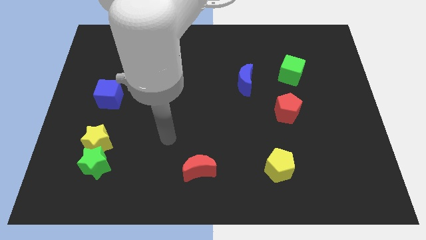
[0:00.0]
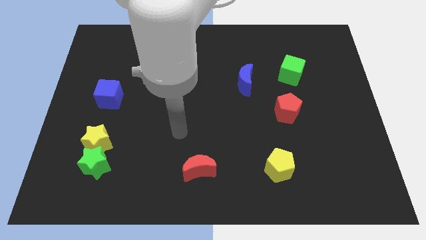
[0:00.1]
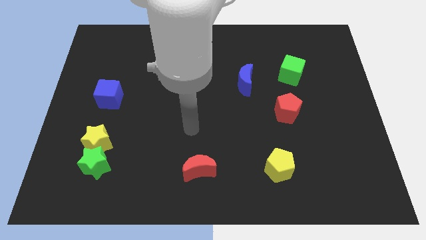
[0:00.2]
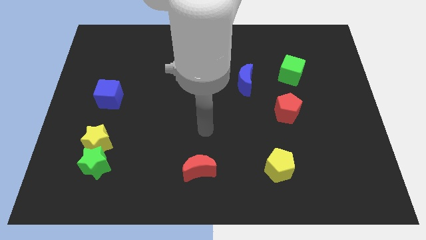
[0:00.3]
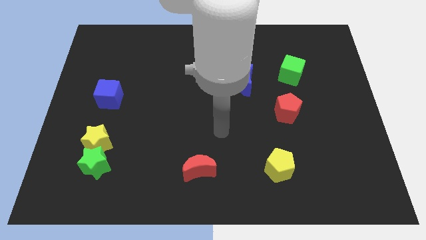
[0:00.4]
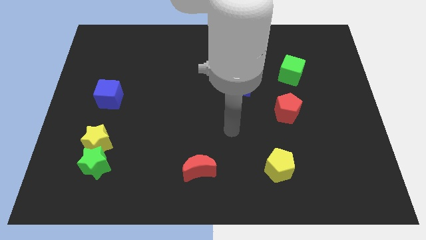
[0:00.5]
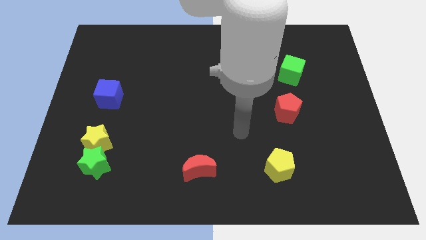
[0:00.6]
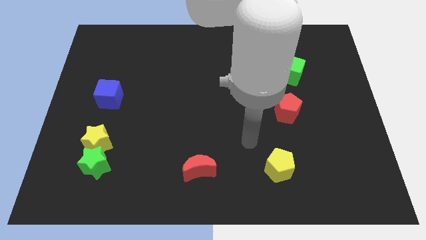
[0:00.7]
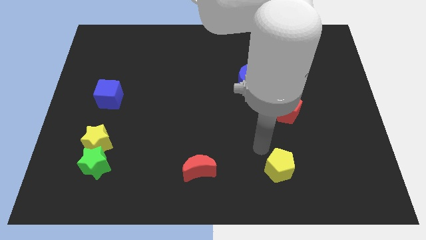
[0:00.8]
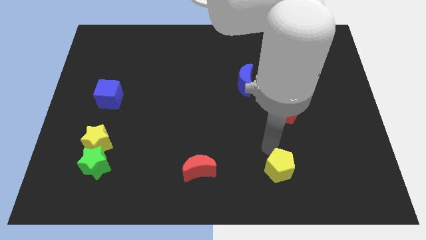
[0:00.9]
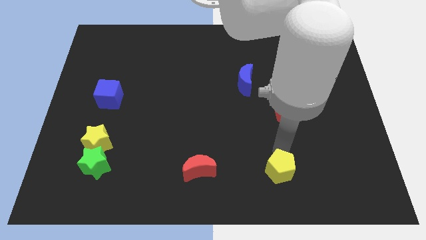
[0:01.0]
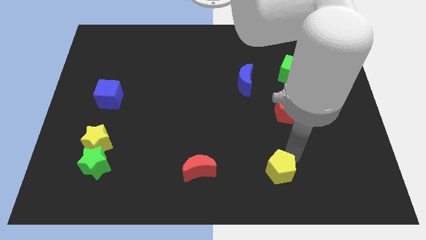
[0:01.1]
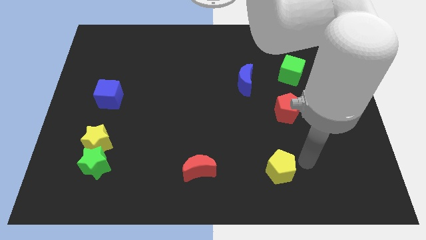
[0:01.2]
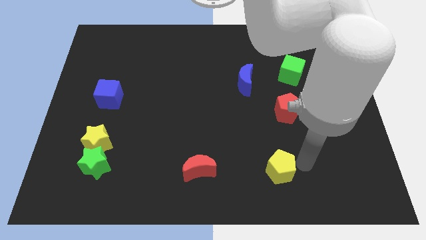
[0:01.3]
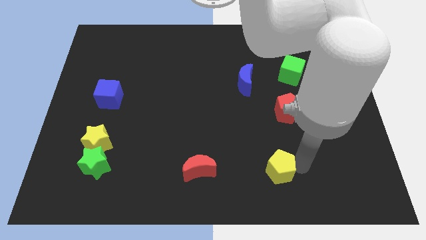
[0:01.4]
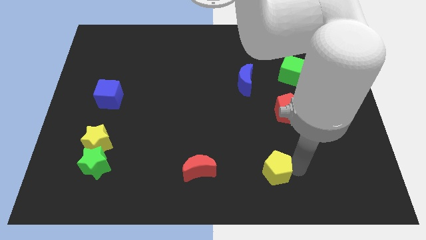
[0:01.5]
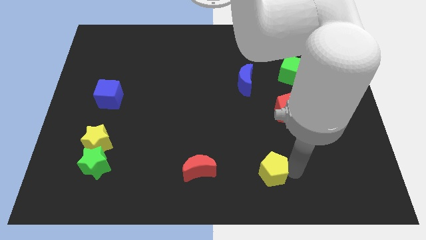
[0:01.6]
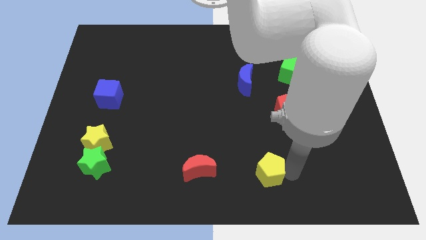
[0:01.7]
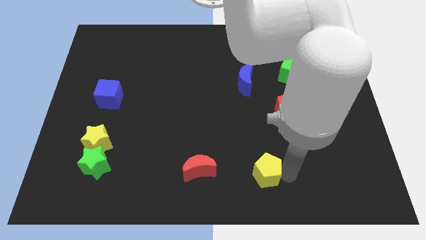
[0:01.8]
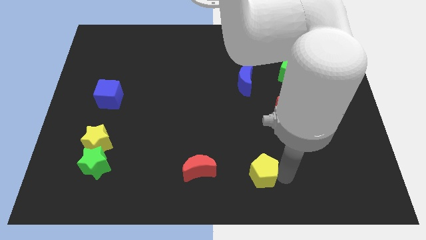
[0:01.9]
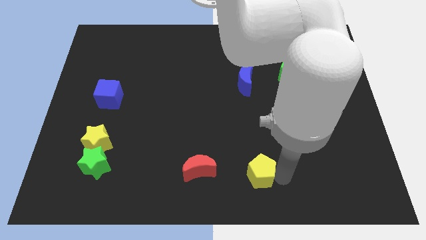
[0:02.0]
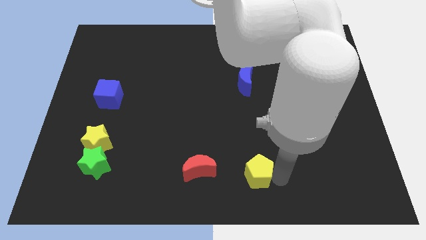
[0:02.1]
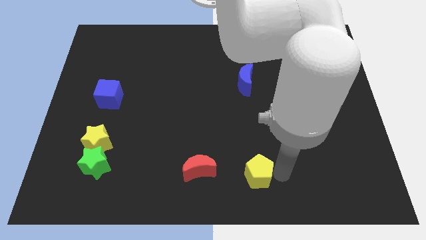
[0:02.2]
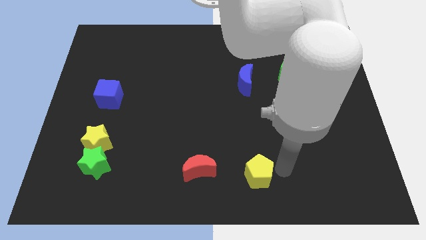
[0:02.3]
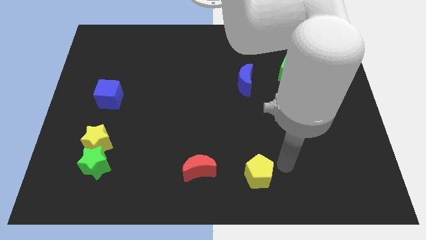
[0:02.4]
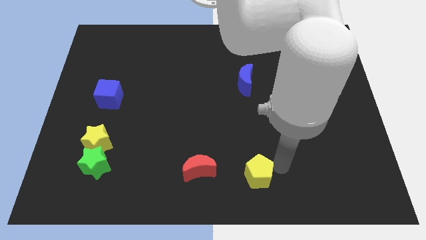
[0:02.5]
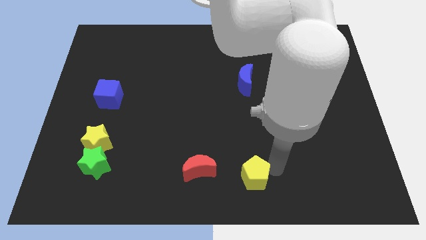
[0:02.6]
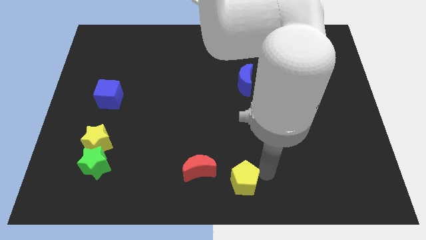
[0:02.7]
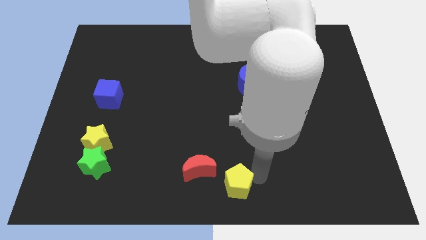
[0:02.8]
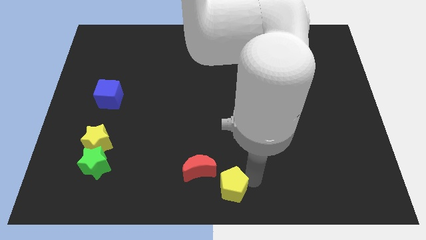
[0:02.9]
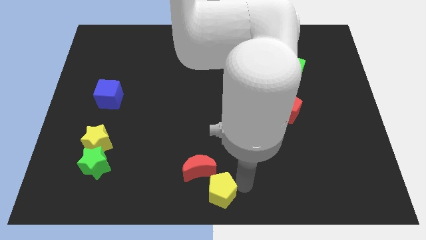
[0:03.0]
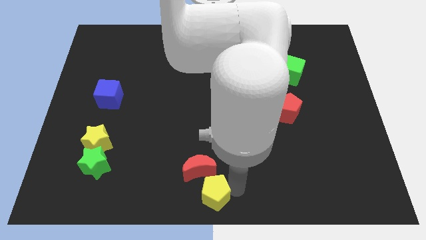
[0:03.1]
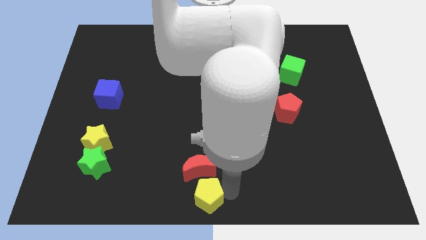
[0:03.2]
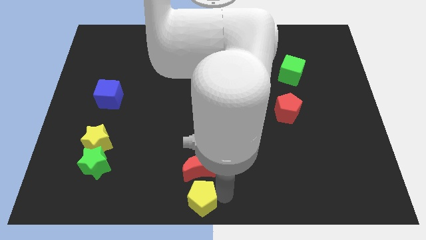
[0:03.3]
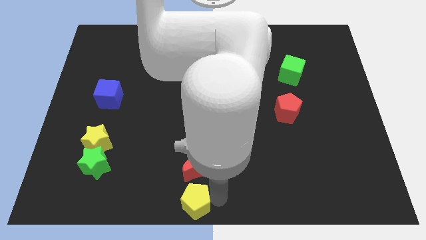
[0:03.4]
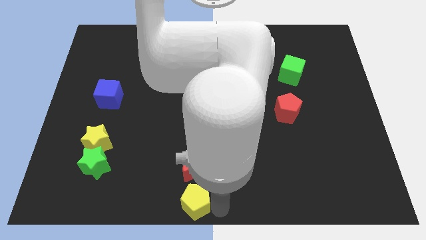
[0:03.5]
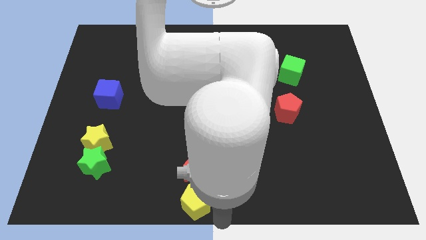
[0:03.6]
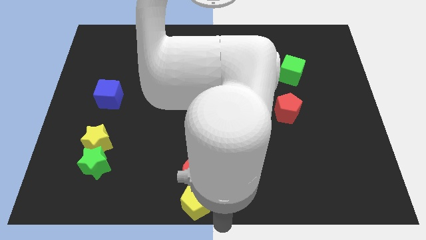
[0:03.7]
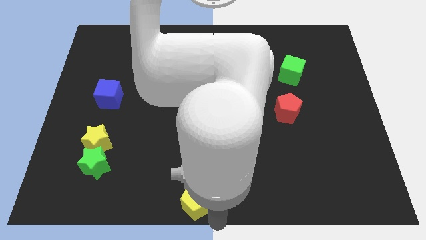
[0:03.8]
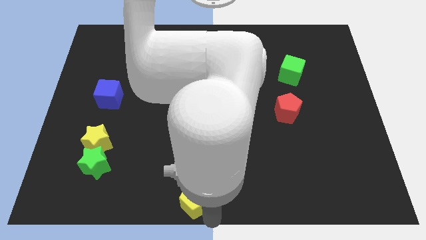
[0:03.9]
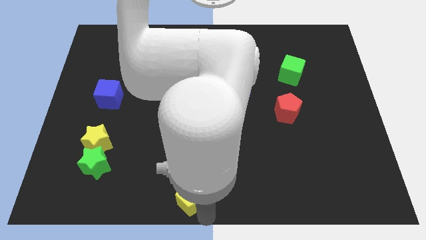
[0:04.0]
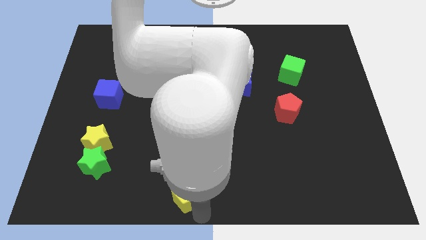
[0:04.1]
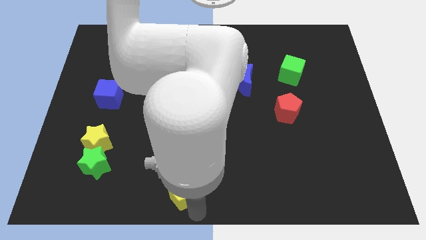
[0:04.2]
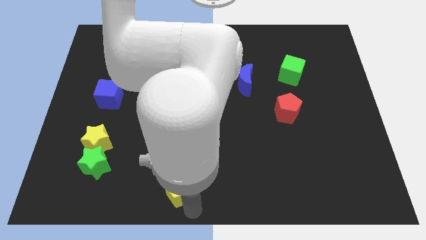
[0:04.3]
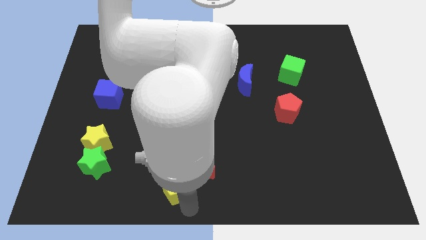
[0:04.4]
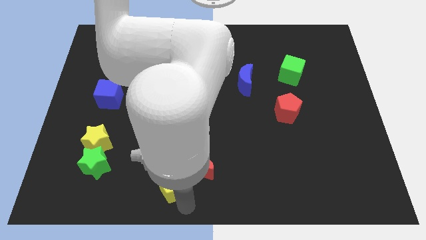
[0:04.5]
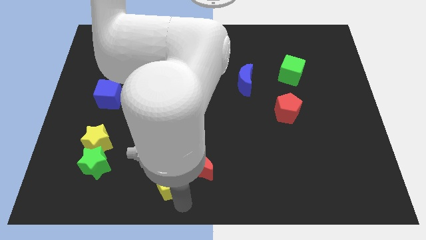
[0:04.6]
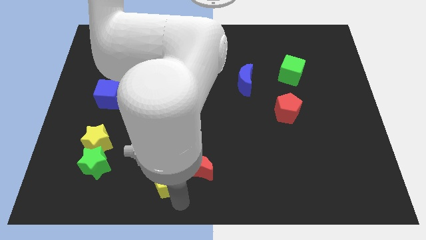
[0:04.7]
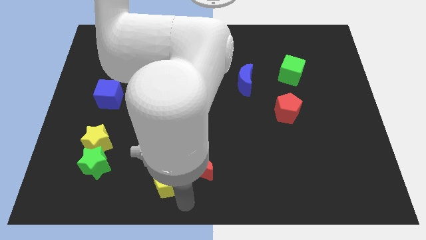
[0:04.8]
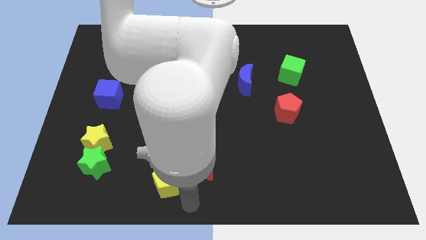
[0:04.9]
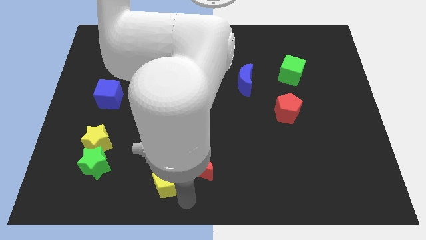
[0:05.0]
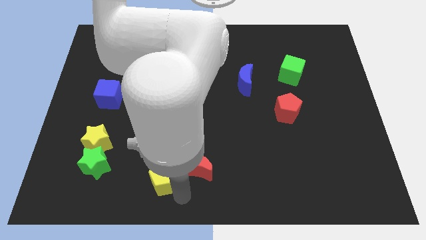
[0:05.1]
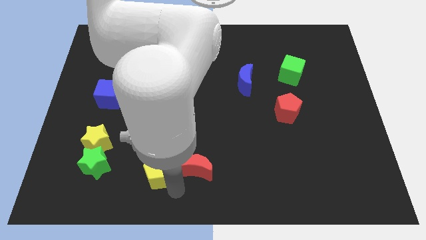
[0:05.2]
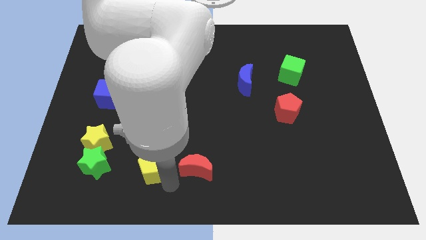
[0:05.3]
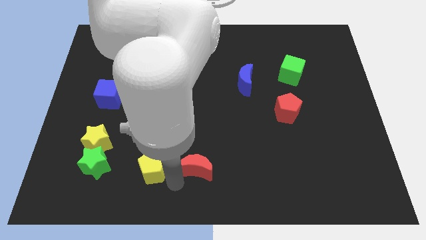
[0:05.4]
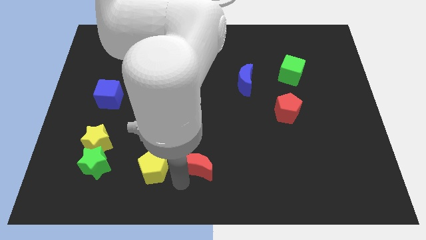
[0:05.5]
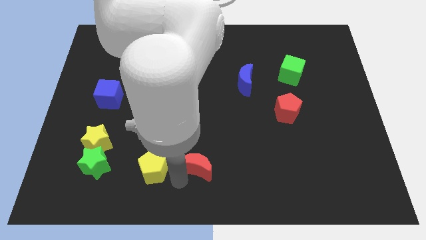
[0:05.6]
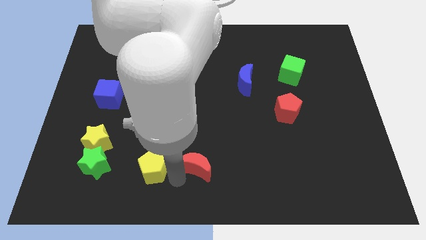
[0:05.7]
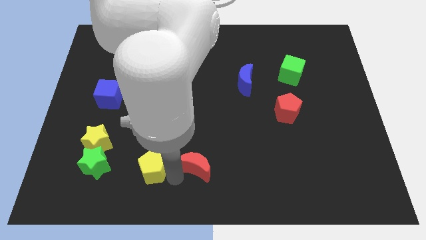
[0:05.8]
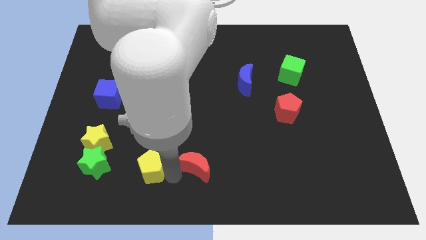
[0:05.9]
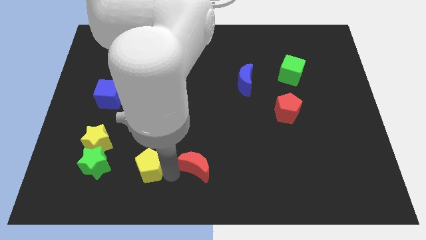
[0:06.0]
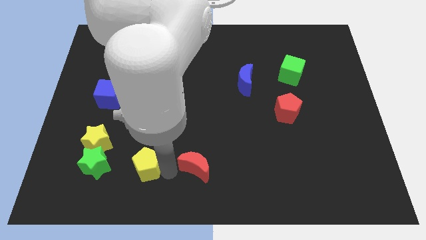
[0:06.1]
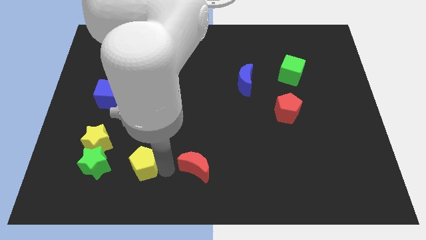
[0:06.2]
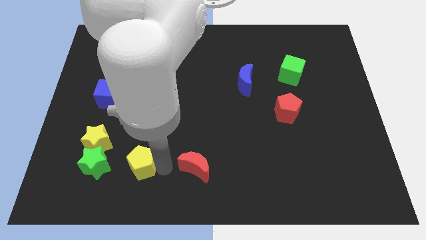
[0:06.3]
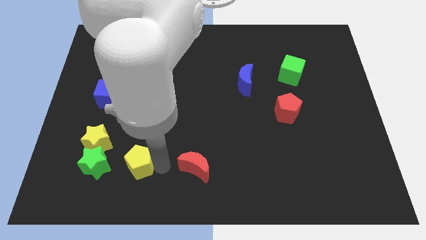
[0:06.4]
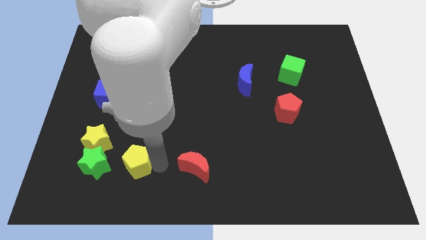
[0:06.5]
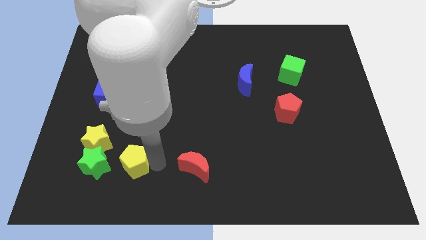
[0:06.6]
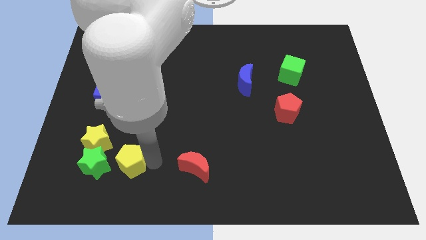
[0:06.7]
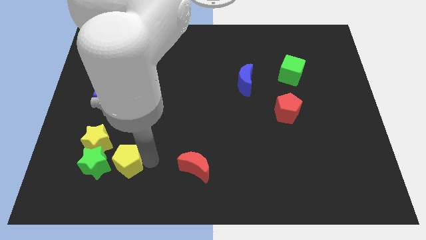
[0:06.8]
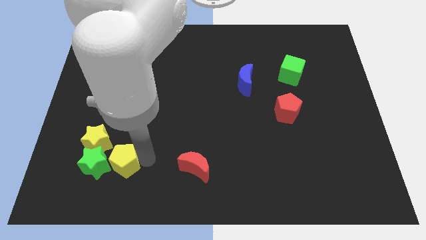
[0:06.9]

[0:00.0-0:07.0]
put the yellow pentagon next to the green star

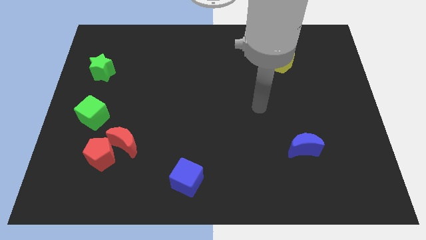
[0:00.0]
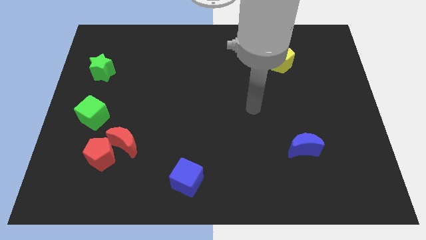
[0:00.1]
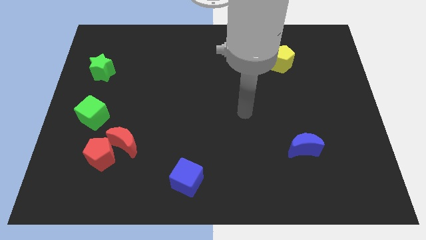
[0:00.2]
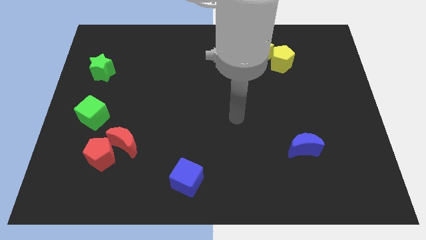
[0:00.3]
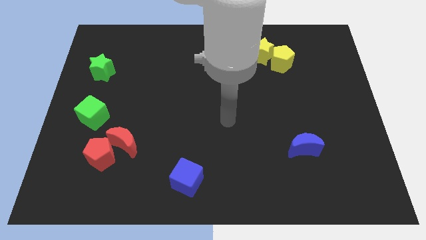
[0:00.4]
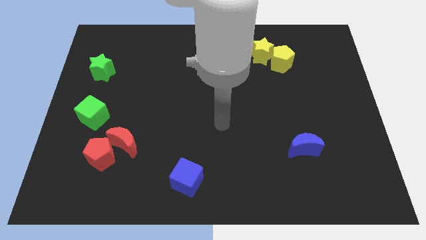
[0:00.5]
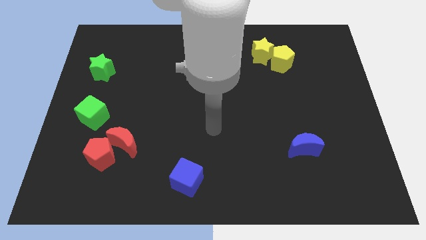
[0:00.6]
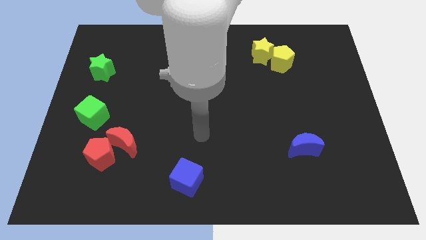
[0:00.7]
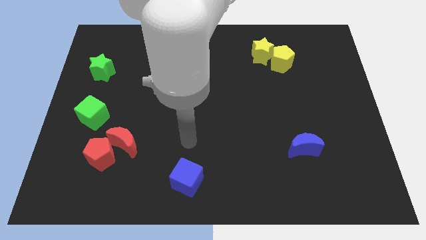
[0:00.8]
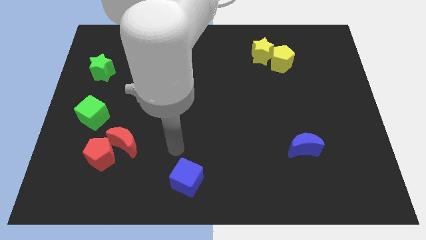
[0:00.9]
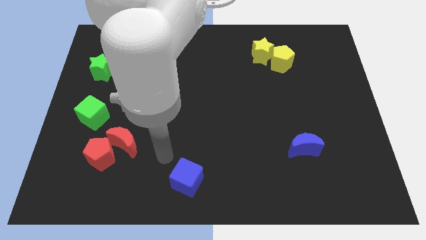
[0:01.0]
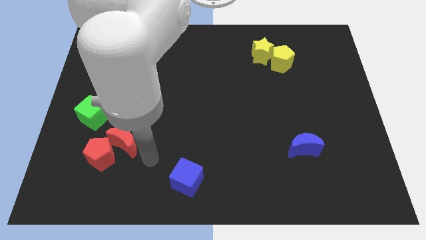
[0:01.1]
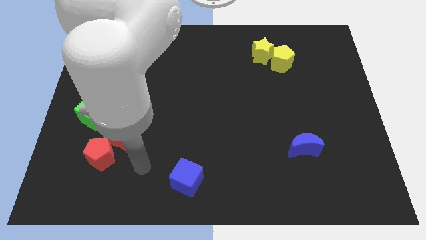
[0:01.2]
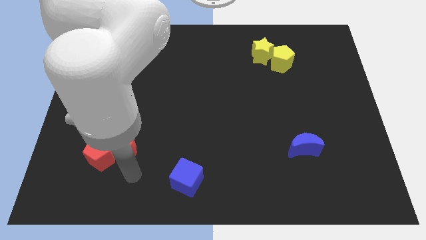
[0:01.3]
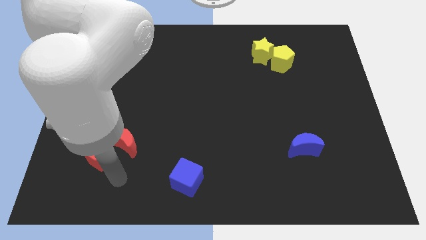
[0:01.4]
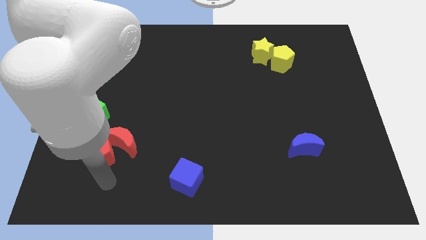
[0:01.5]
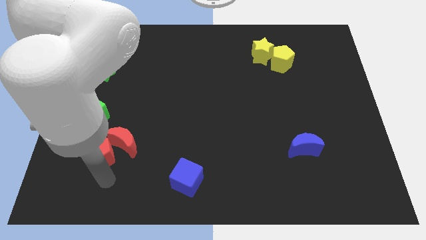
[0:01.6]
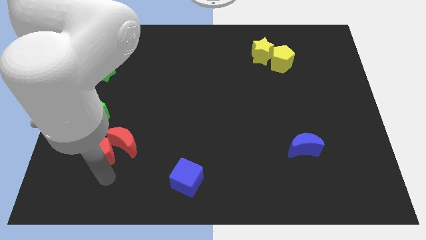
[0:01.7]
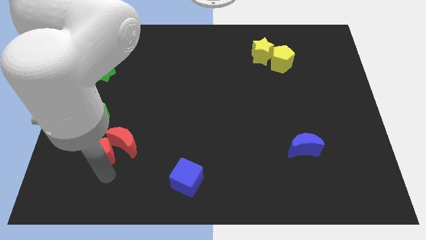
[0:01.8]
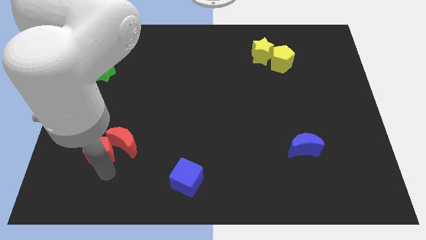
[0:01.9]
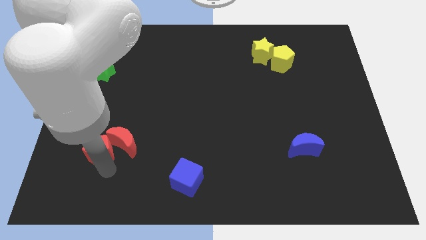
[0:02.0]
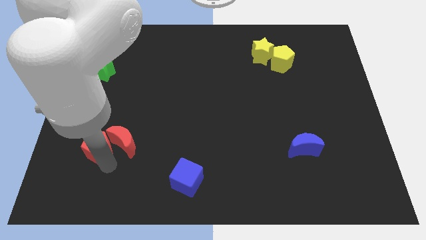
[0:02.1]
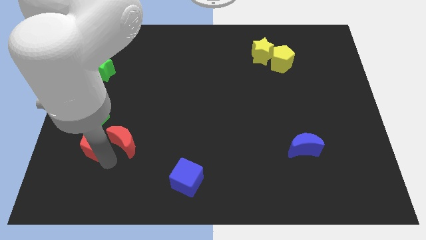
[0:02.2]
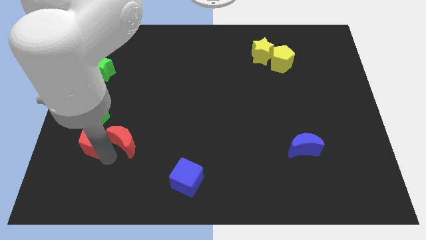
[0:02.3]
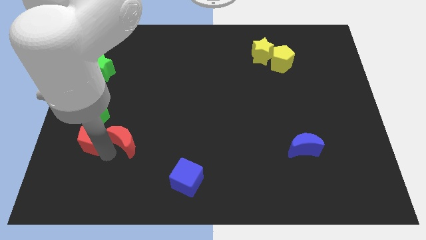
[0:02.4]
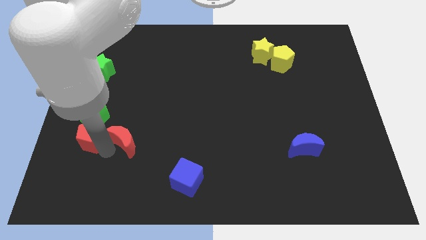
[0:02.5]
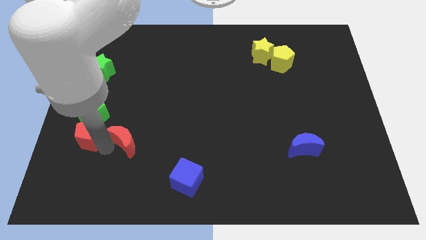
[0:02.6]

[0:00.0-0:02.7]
slide the red pentagon to the green cube
